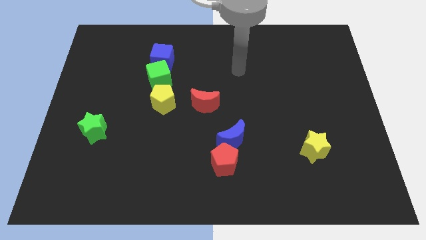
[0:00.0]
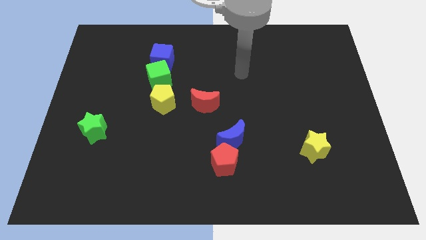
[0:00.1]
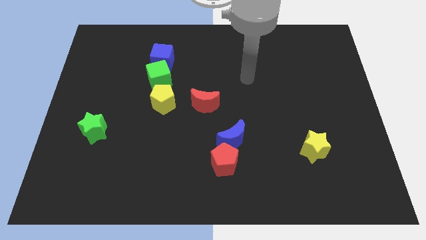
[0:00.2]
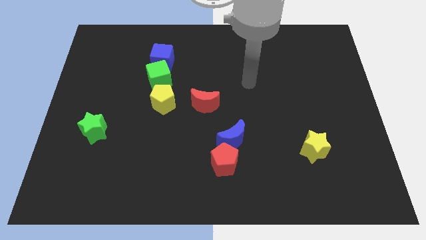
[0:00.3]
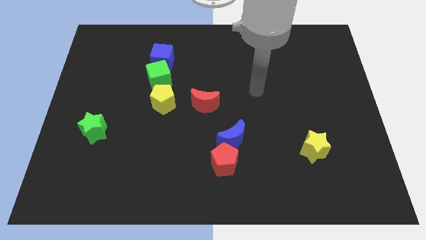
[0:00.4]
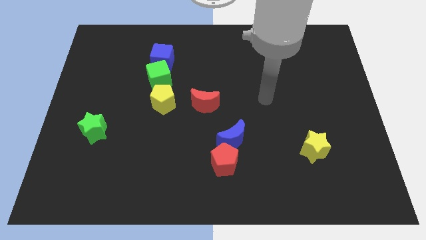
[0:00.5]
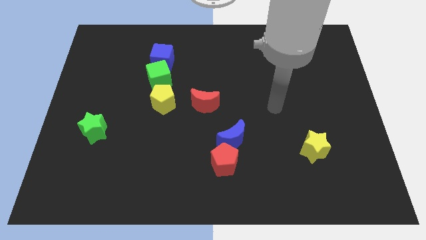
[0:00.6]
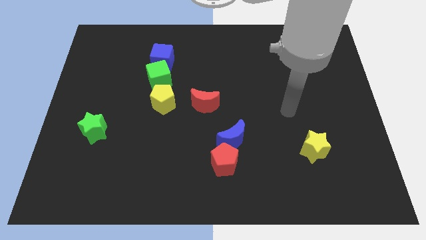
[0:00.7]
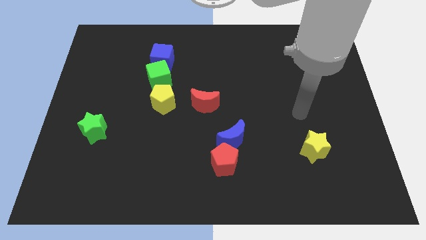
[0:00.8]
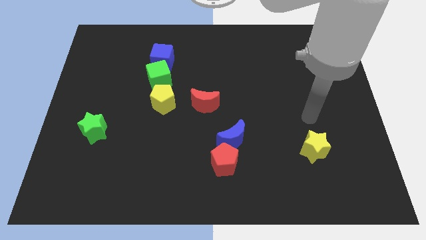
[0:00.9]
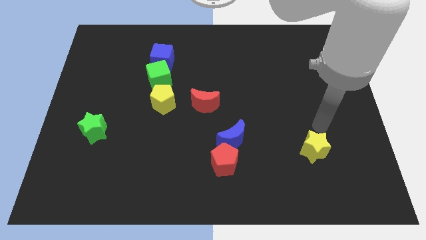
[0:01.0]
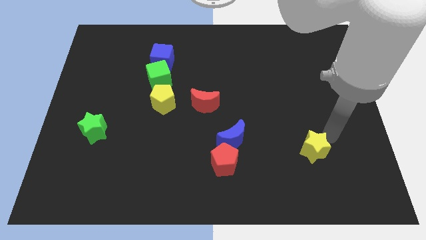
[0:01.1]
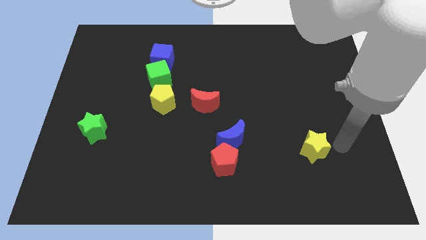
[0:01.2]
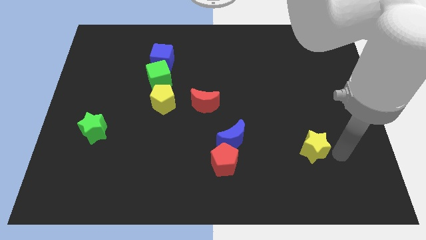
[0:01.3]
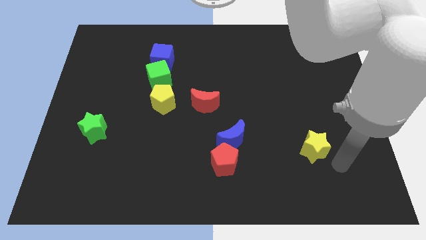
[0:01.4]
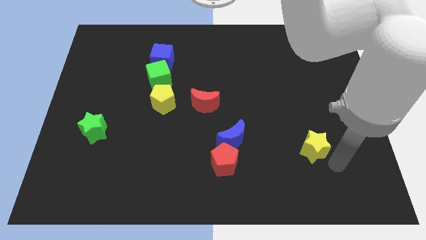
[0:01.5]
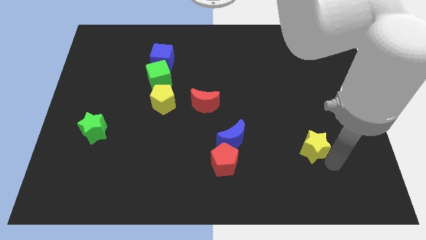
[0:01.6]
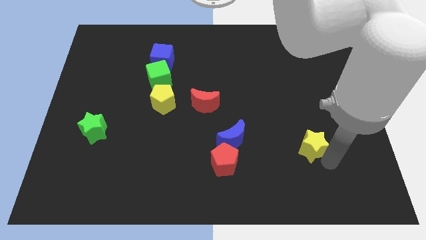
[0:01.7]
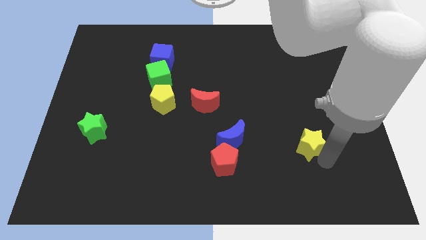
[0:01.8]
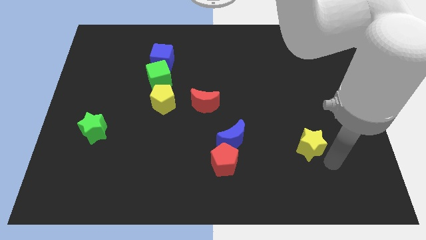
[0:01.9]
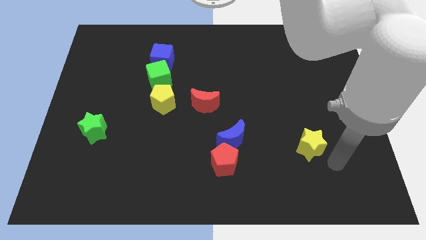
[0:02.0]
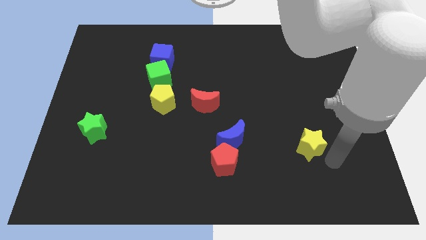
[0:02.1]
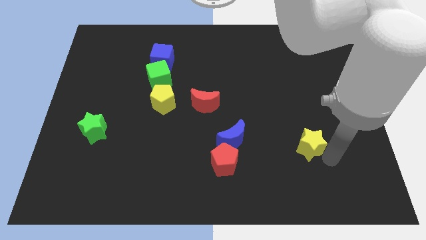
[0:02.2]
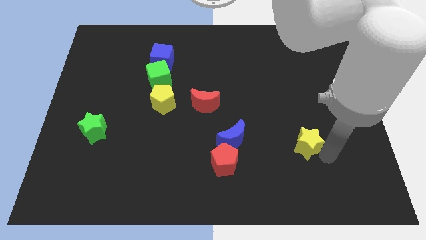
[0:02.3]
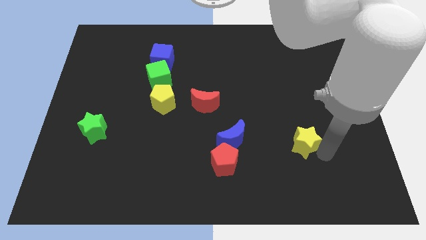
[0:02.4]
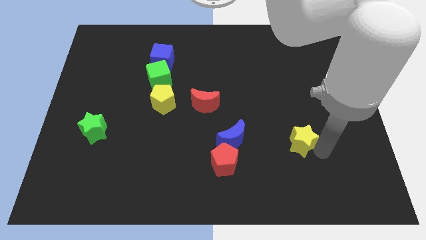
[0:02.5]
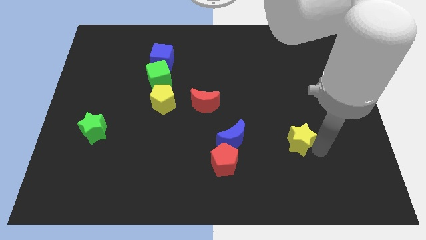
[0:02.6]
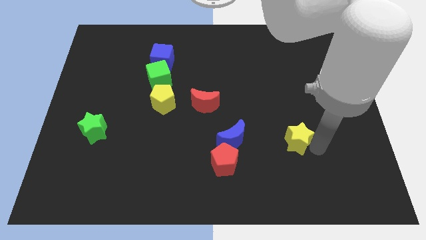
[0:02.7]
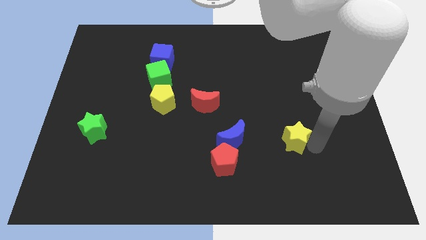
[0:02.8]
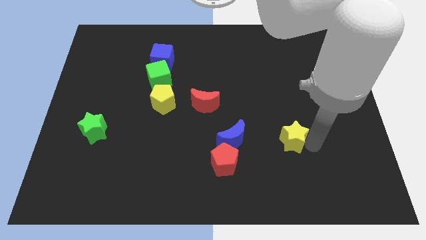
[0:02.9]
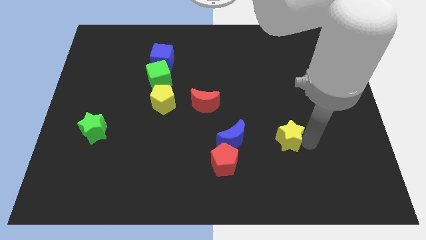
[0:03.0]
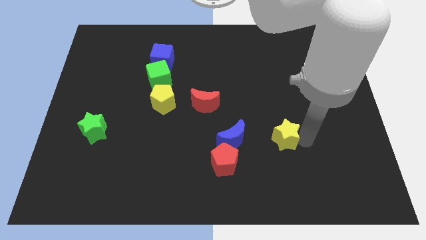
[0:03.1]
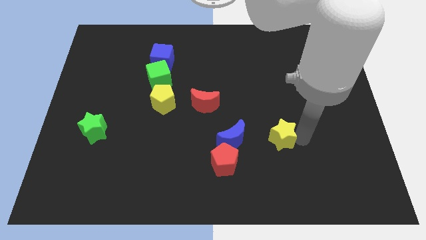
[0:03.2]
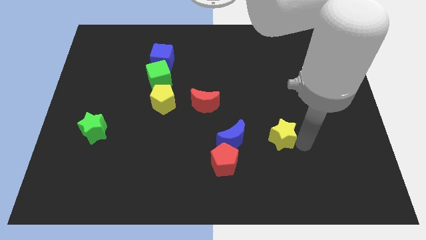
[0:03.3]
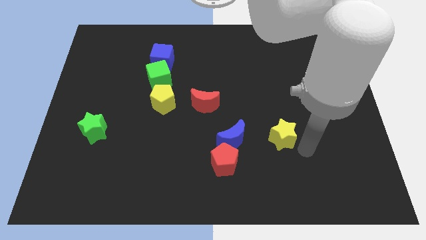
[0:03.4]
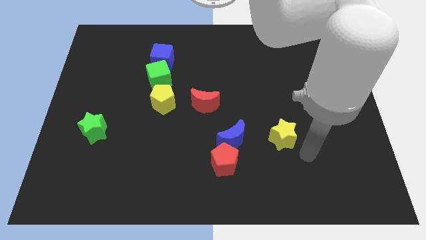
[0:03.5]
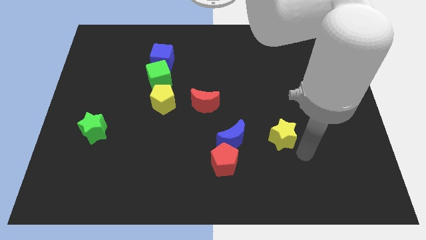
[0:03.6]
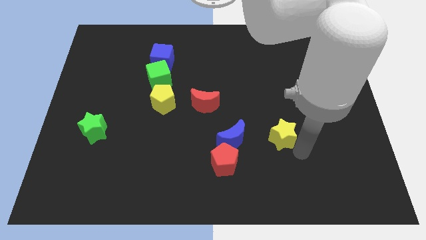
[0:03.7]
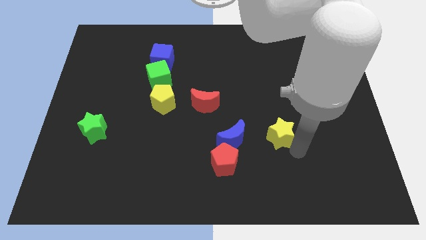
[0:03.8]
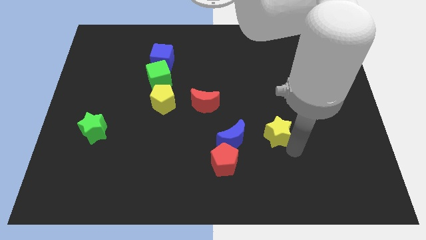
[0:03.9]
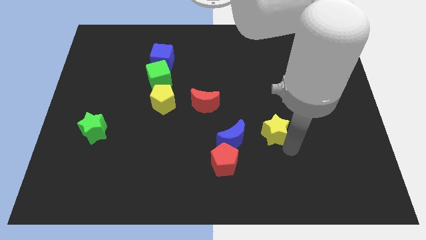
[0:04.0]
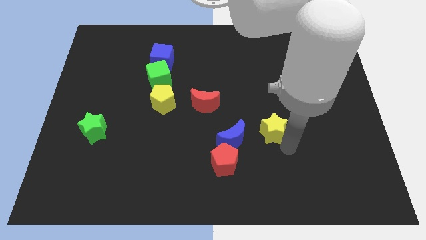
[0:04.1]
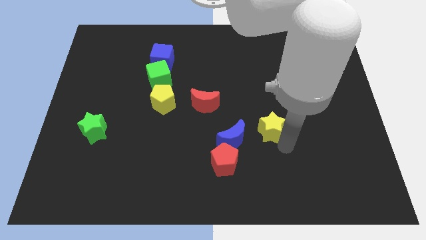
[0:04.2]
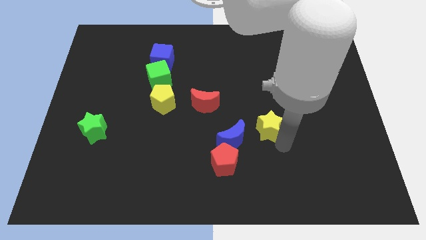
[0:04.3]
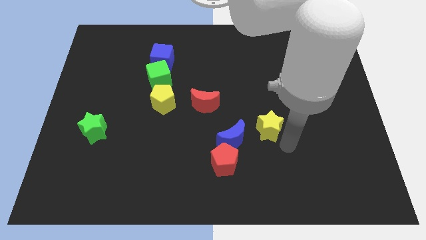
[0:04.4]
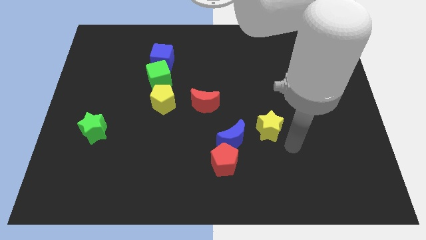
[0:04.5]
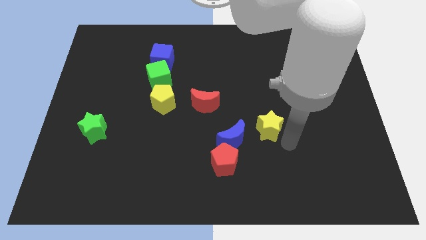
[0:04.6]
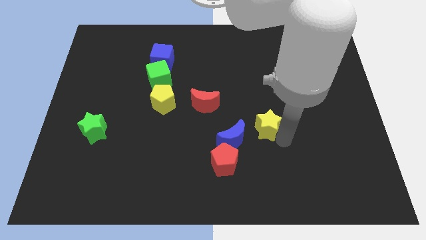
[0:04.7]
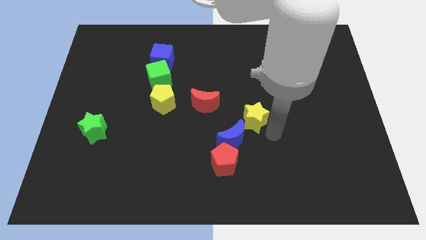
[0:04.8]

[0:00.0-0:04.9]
slide the yellow star above the blue moon

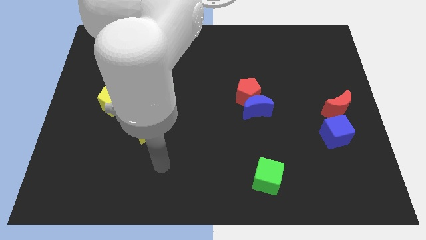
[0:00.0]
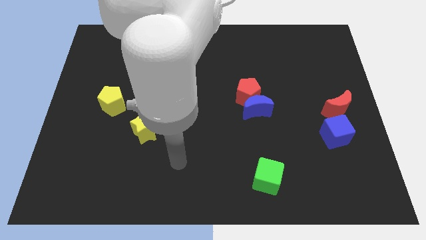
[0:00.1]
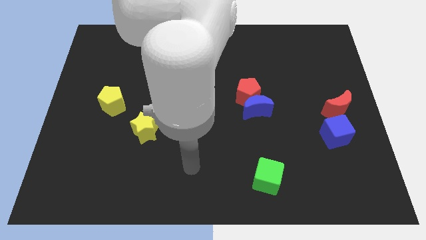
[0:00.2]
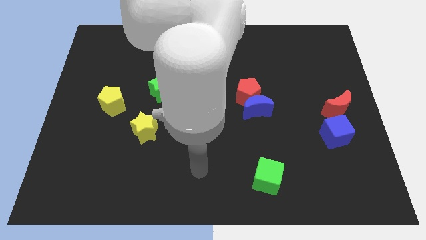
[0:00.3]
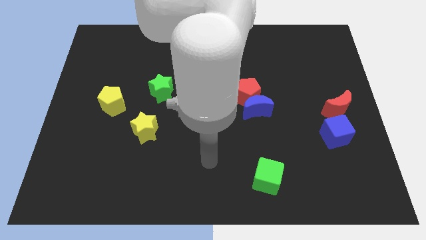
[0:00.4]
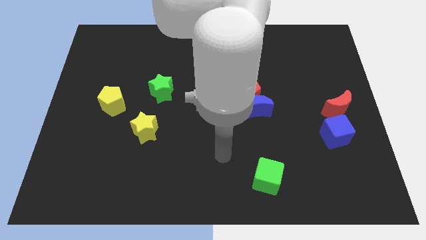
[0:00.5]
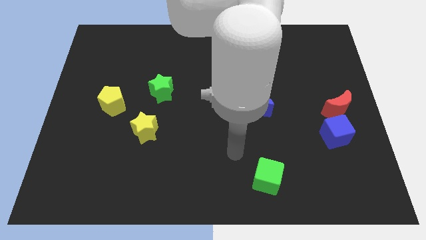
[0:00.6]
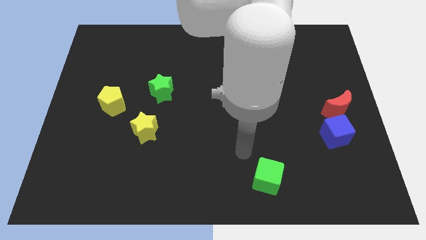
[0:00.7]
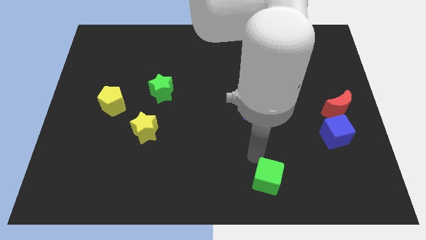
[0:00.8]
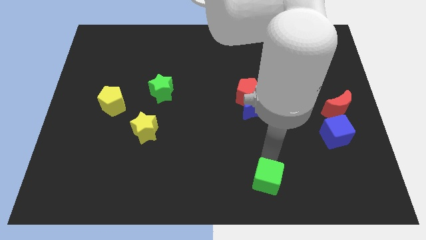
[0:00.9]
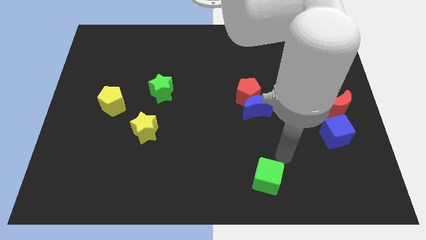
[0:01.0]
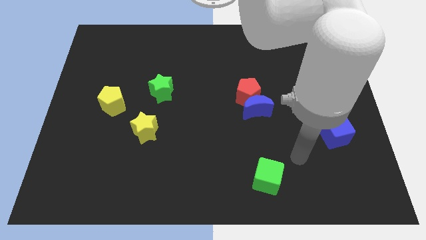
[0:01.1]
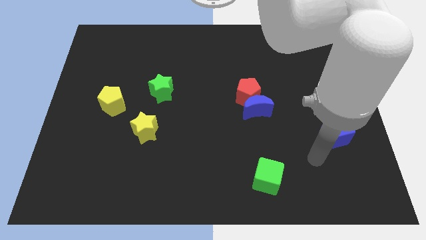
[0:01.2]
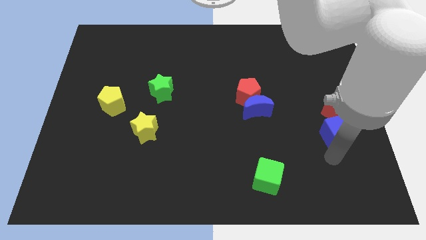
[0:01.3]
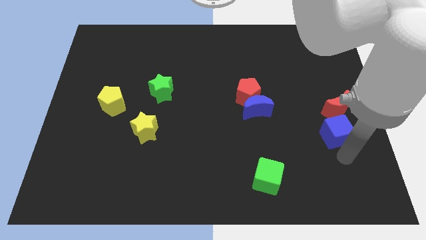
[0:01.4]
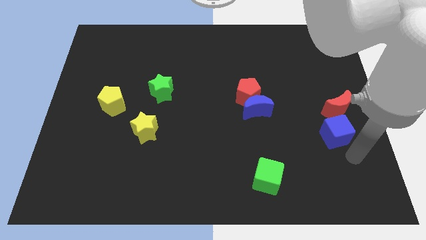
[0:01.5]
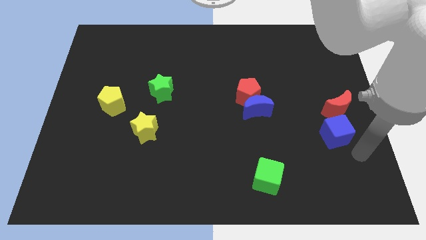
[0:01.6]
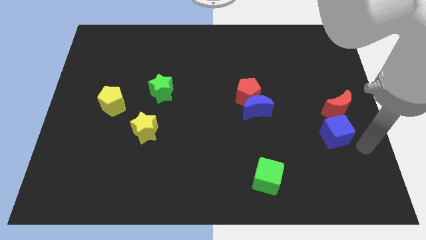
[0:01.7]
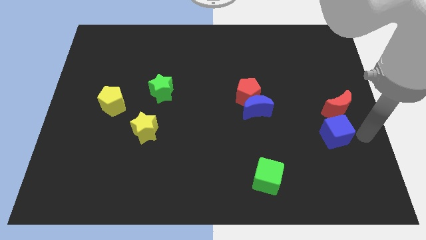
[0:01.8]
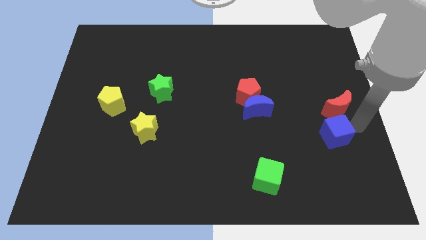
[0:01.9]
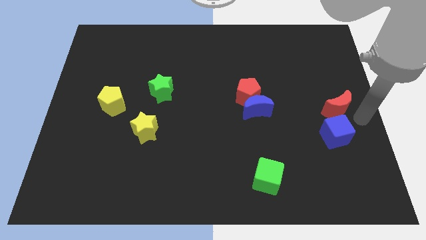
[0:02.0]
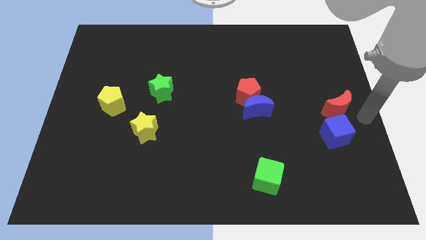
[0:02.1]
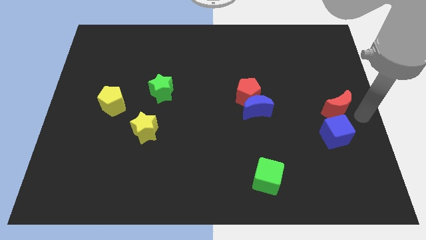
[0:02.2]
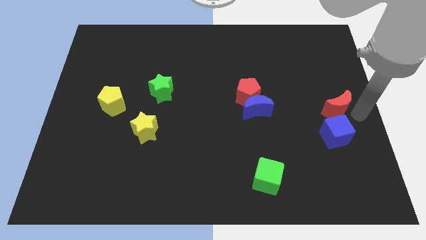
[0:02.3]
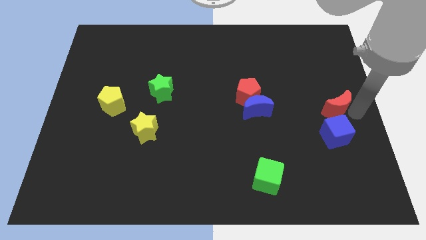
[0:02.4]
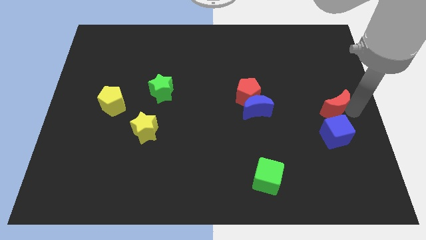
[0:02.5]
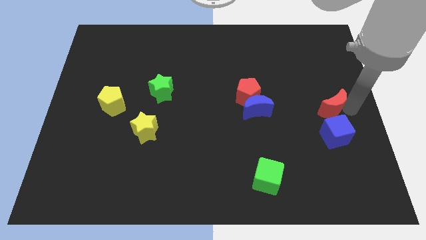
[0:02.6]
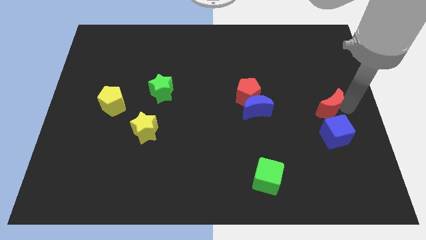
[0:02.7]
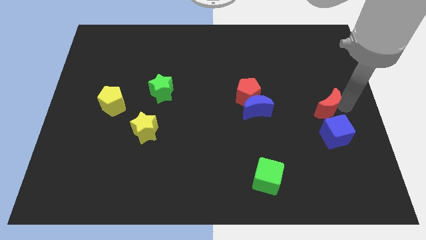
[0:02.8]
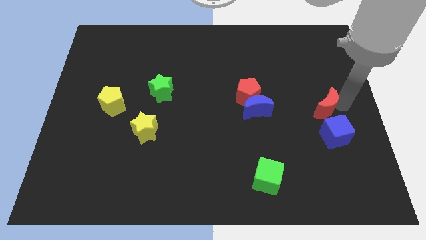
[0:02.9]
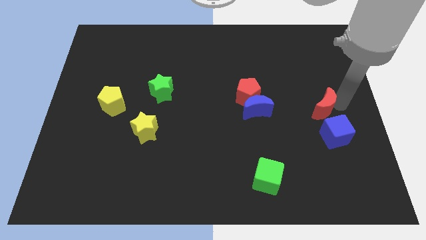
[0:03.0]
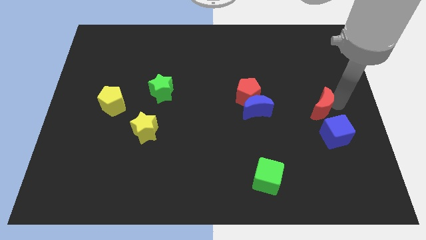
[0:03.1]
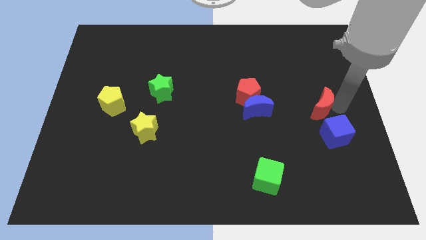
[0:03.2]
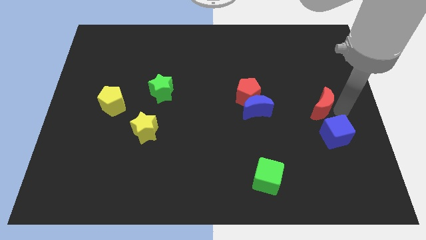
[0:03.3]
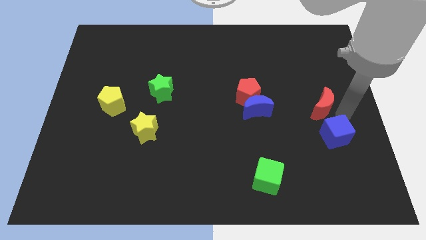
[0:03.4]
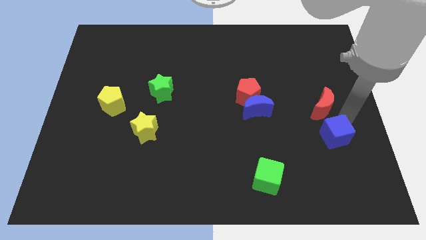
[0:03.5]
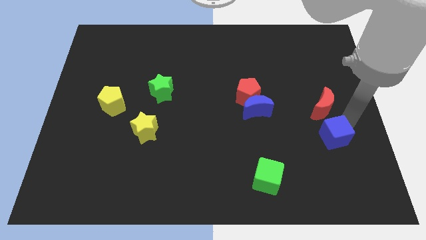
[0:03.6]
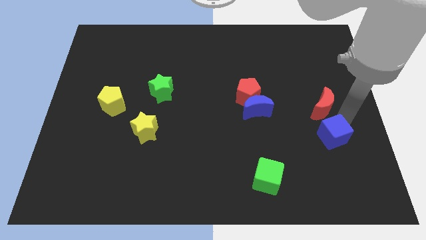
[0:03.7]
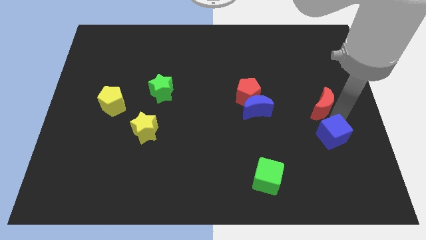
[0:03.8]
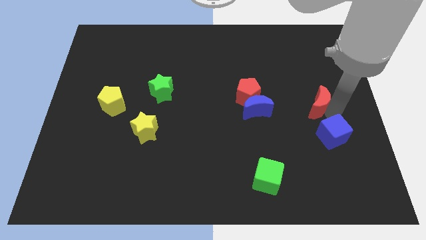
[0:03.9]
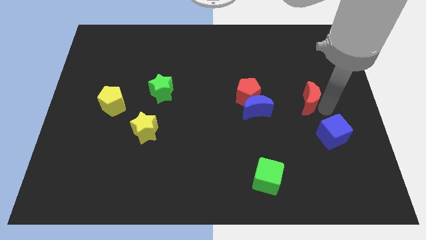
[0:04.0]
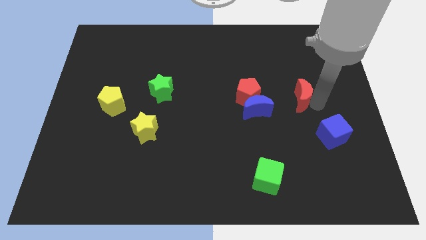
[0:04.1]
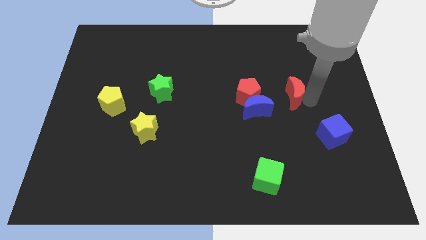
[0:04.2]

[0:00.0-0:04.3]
push the red moon to the top right side of the blue moon
